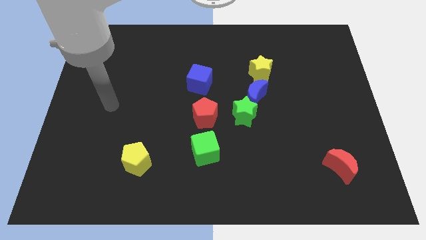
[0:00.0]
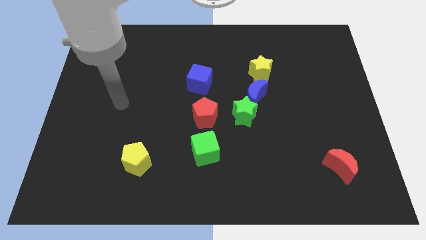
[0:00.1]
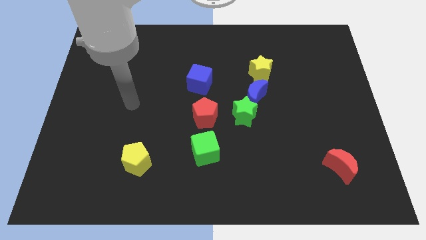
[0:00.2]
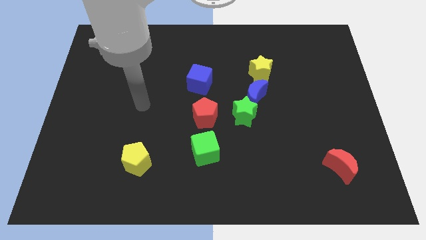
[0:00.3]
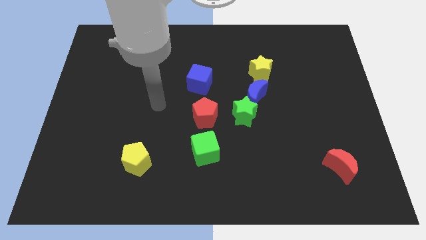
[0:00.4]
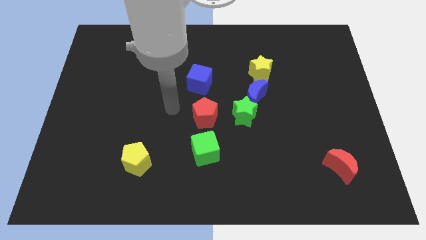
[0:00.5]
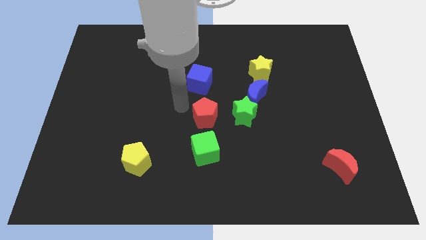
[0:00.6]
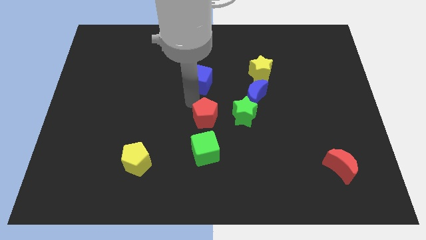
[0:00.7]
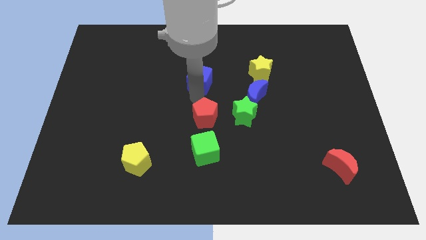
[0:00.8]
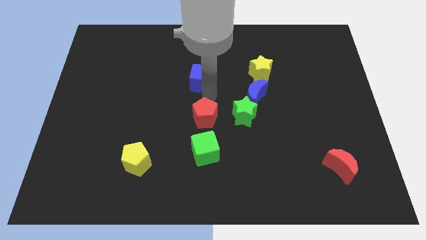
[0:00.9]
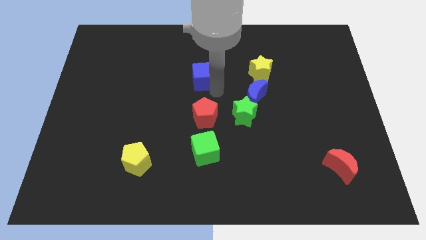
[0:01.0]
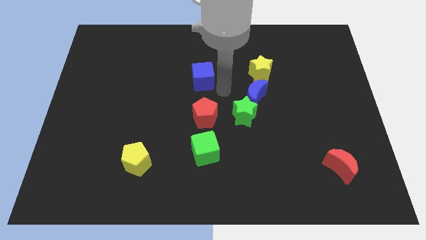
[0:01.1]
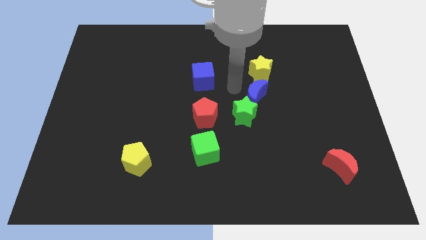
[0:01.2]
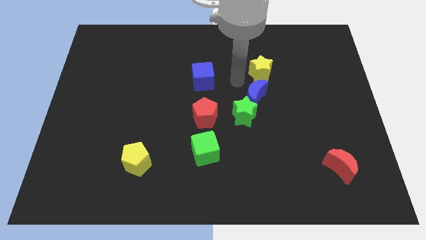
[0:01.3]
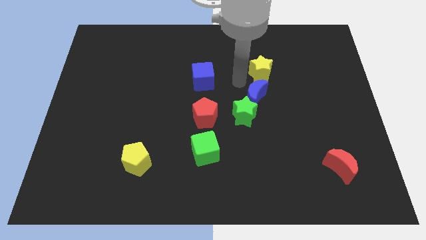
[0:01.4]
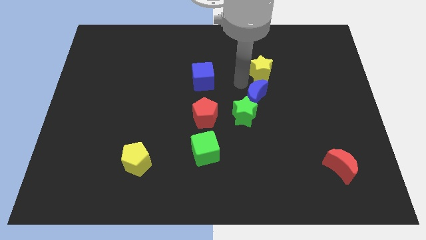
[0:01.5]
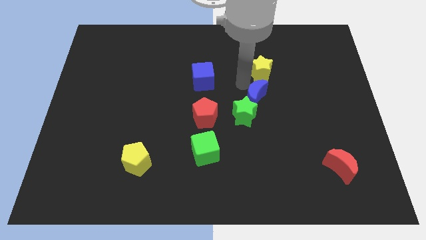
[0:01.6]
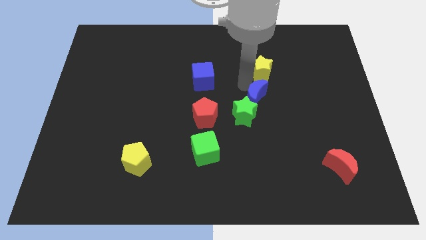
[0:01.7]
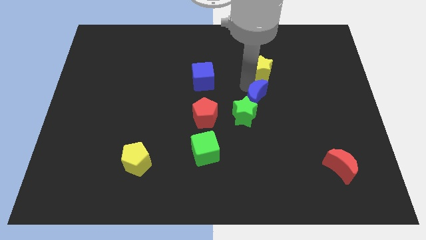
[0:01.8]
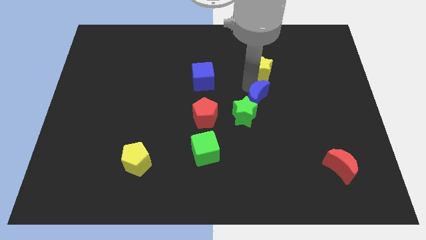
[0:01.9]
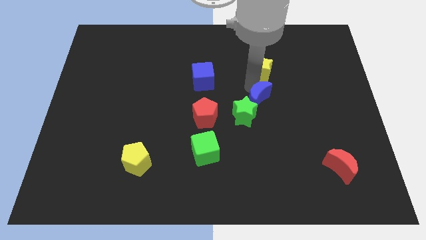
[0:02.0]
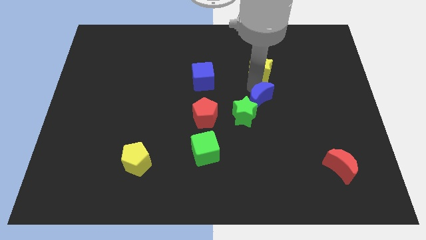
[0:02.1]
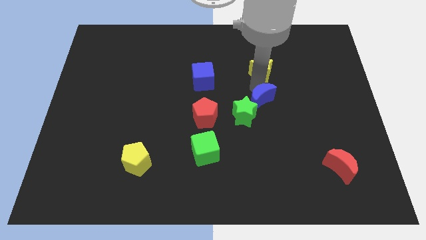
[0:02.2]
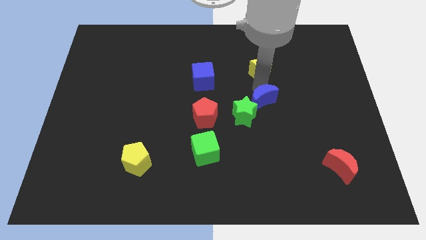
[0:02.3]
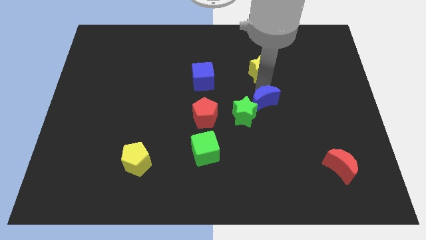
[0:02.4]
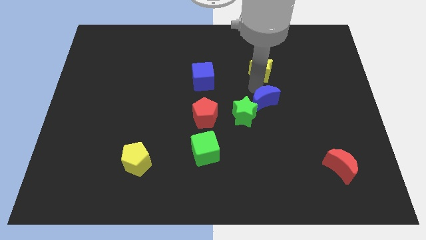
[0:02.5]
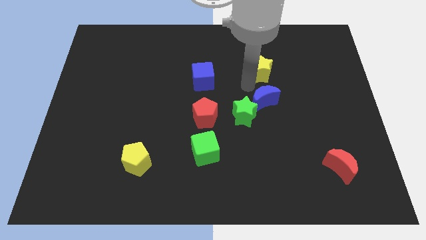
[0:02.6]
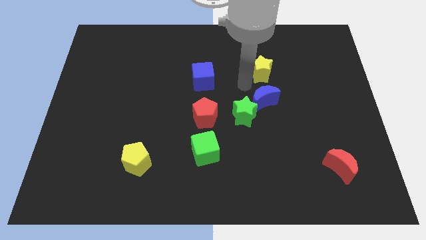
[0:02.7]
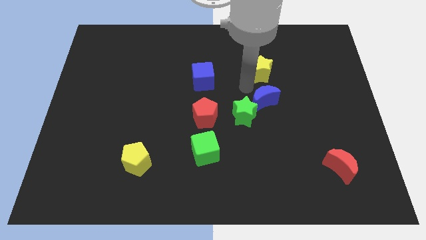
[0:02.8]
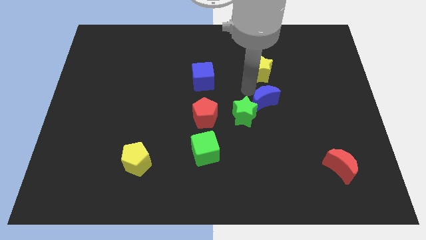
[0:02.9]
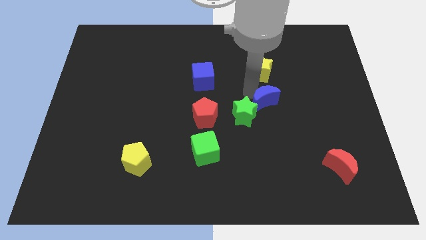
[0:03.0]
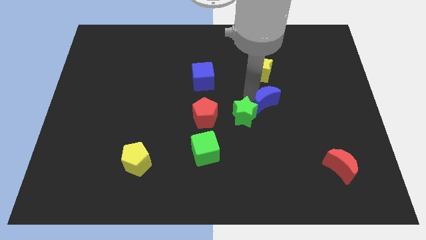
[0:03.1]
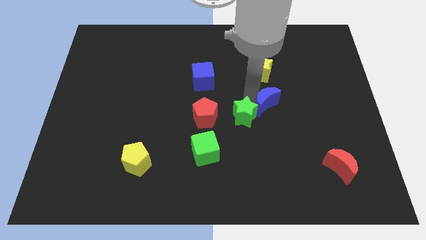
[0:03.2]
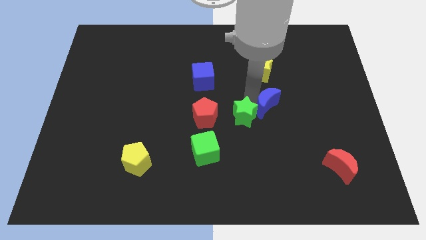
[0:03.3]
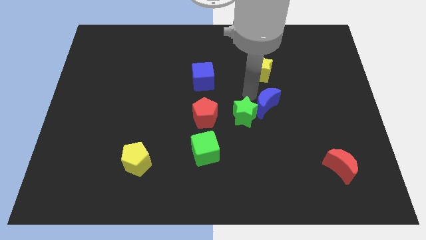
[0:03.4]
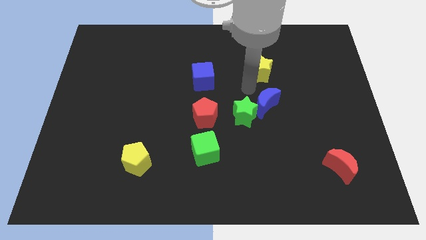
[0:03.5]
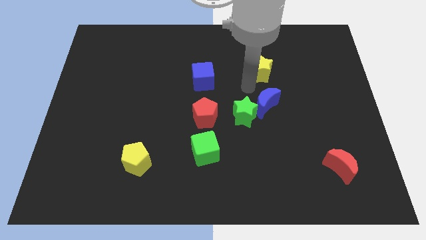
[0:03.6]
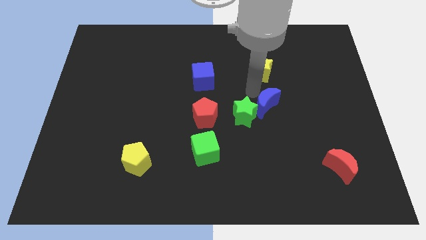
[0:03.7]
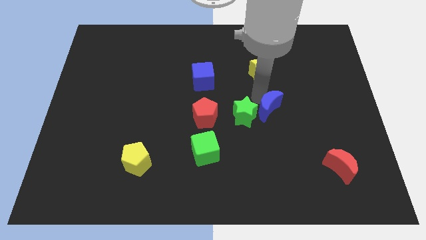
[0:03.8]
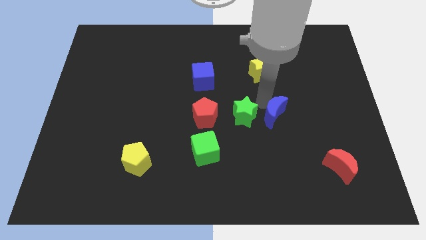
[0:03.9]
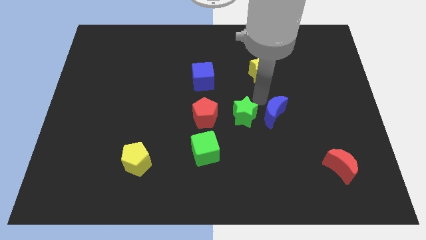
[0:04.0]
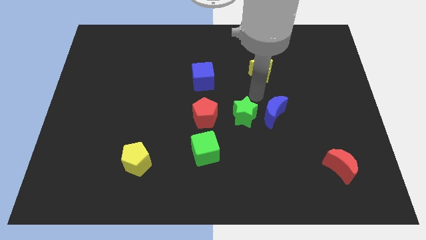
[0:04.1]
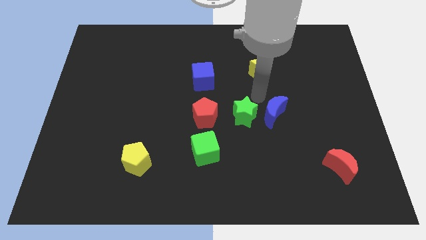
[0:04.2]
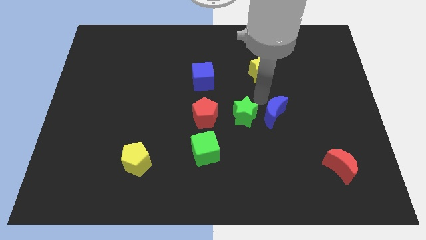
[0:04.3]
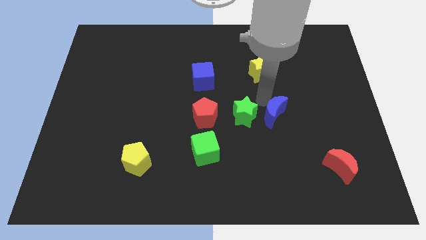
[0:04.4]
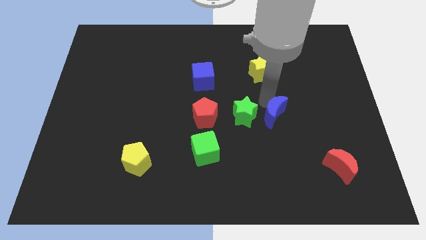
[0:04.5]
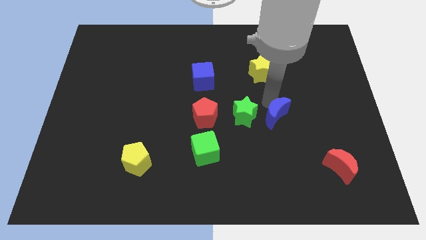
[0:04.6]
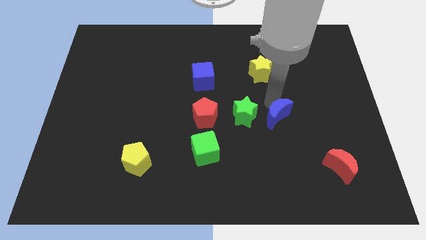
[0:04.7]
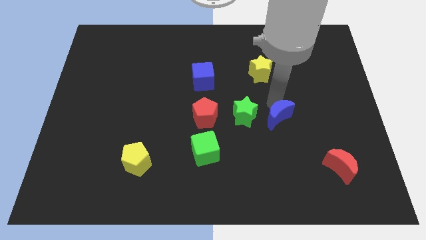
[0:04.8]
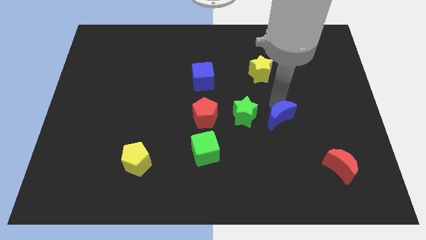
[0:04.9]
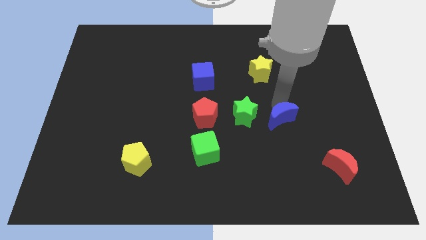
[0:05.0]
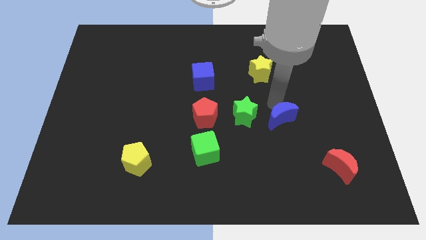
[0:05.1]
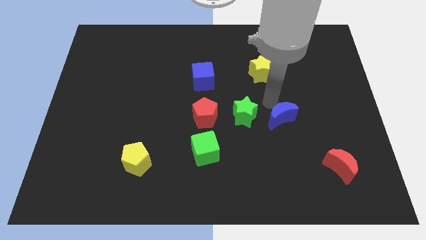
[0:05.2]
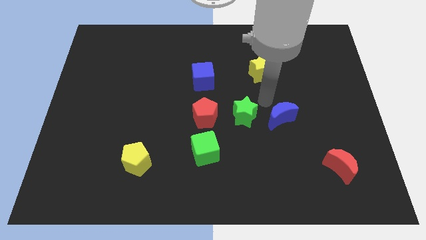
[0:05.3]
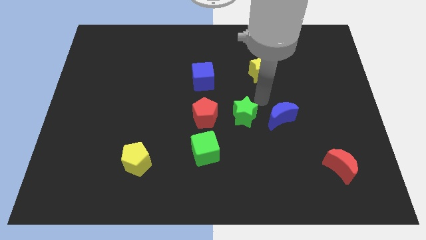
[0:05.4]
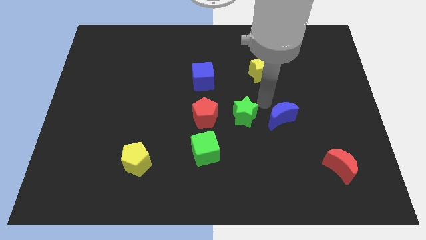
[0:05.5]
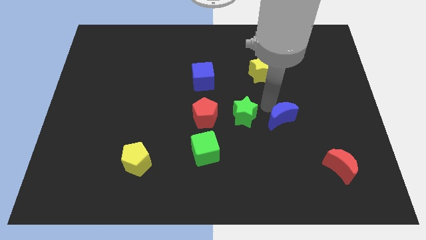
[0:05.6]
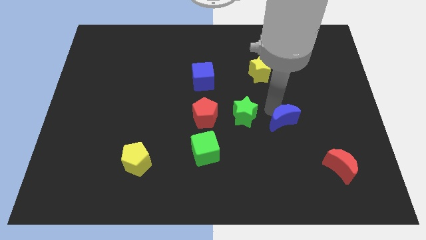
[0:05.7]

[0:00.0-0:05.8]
move the blue moon away from the green star and yellow star

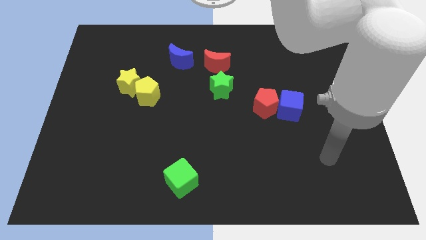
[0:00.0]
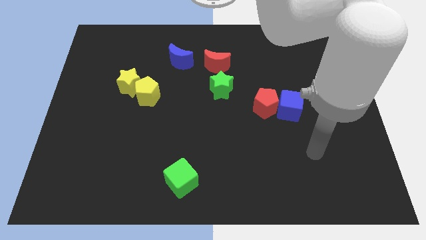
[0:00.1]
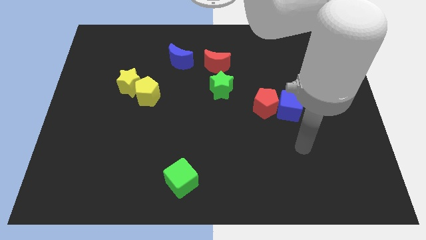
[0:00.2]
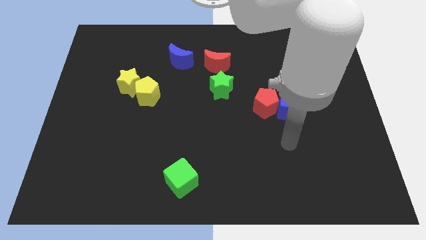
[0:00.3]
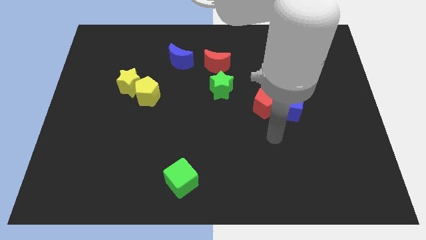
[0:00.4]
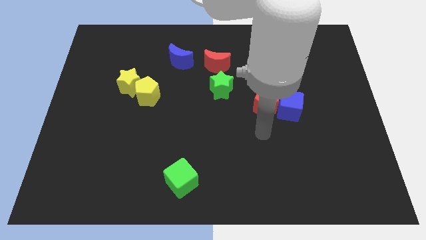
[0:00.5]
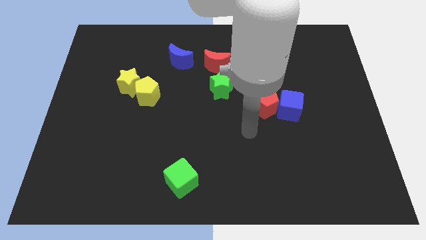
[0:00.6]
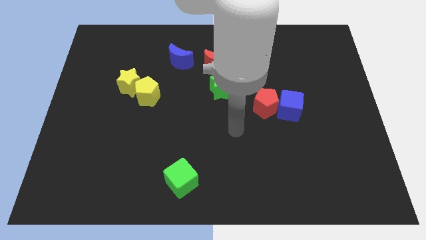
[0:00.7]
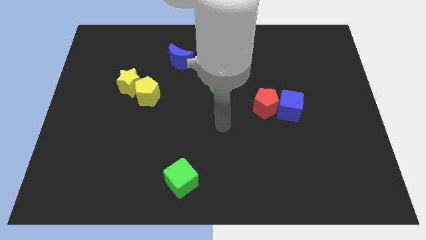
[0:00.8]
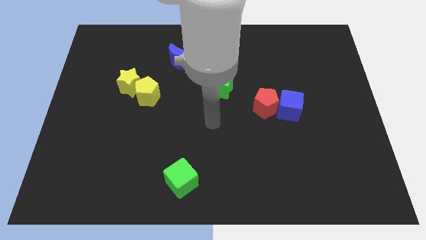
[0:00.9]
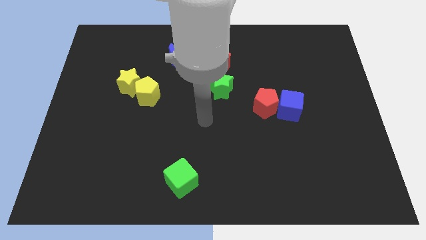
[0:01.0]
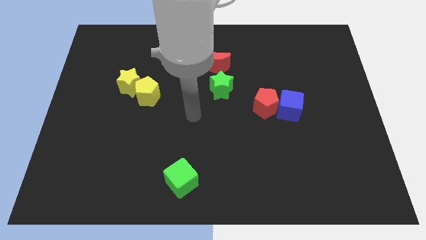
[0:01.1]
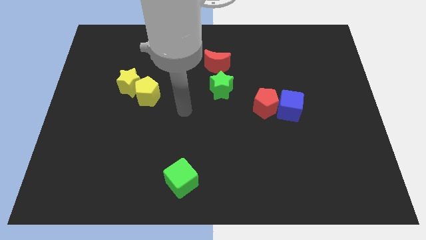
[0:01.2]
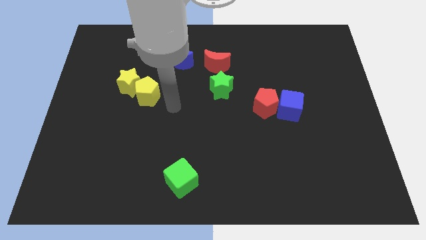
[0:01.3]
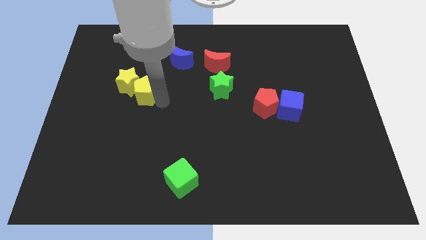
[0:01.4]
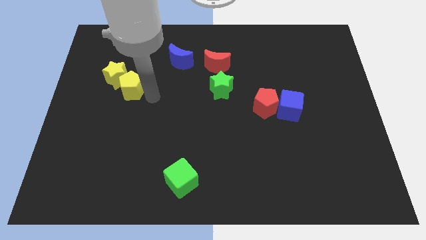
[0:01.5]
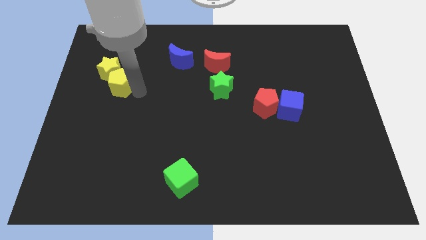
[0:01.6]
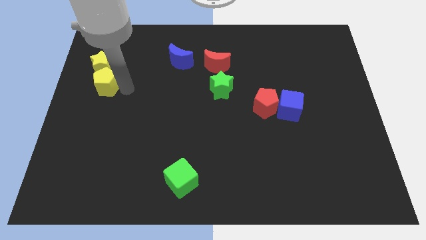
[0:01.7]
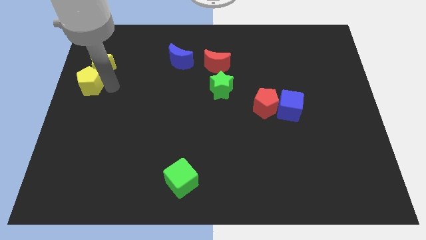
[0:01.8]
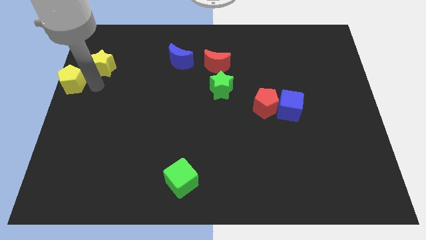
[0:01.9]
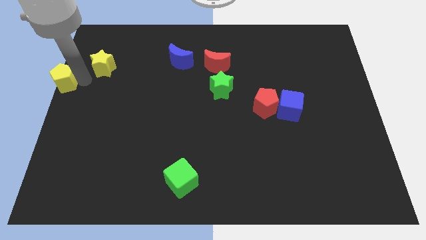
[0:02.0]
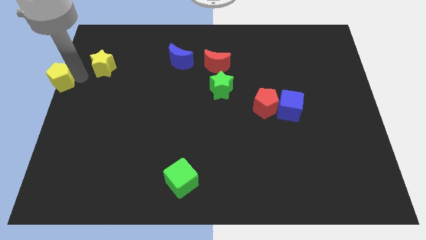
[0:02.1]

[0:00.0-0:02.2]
pull the yellow star apart from the yellow pentagon

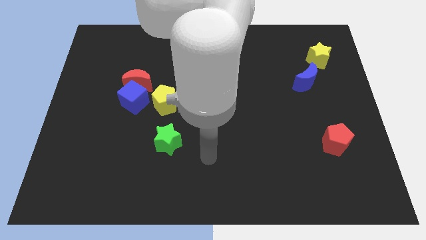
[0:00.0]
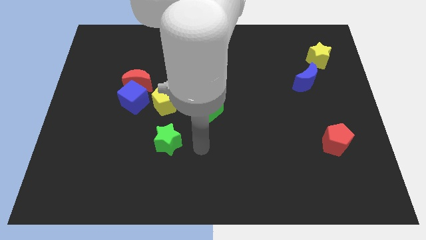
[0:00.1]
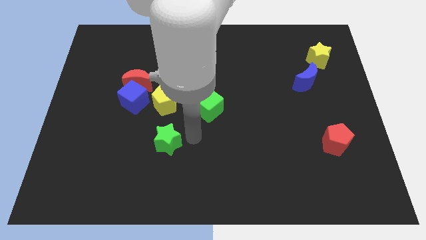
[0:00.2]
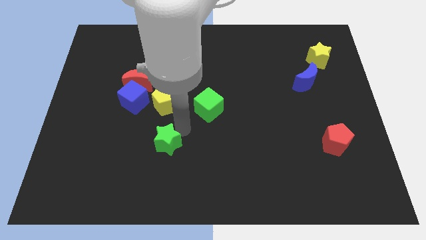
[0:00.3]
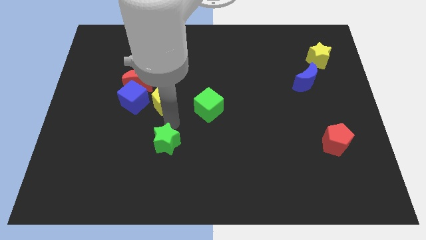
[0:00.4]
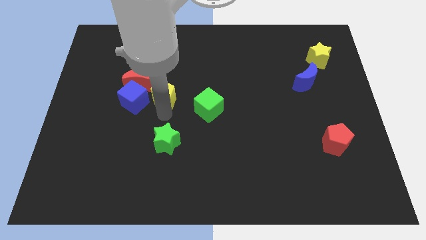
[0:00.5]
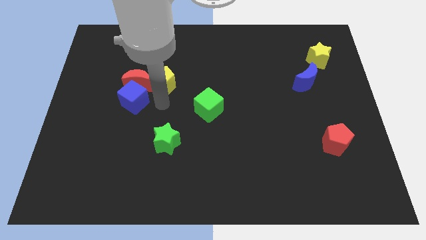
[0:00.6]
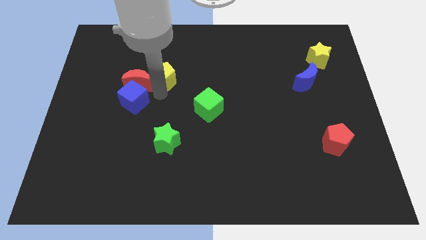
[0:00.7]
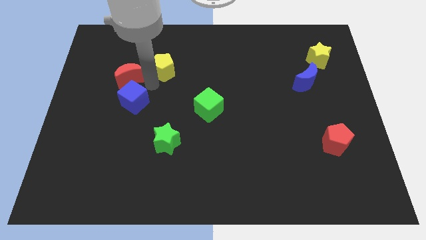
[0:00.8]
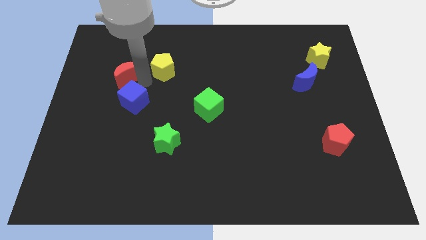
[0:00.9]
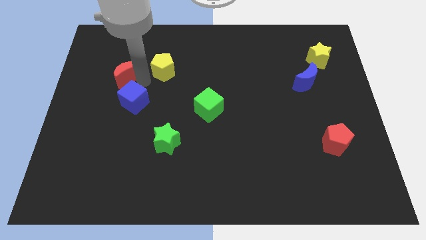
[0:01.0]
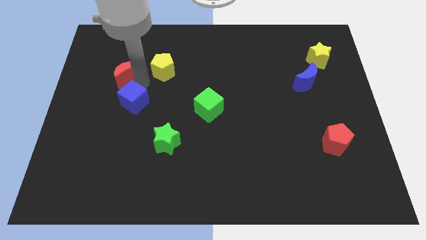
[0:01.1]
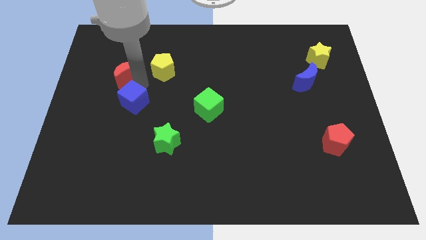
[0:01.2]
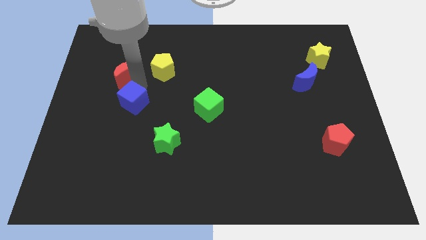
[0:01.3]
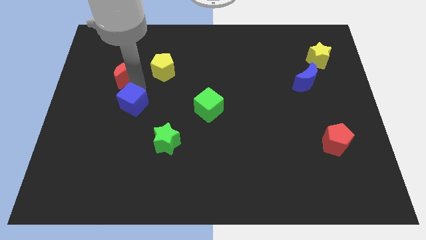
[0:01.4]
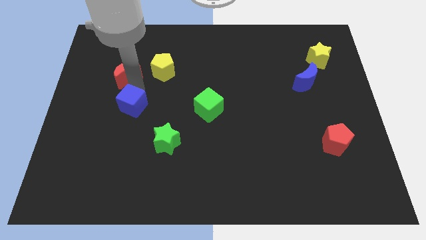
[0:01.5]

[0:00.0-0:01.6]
separate the blue cube from the red moon and yellow pentagon
